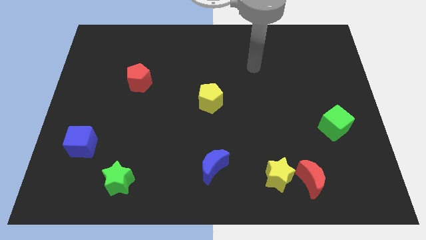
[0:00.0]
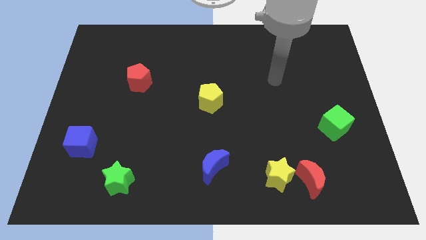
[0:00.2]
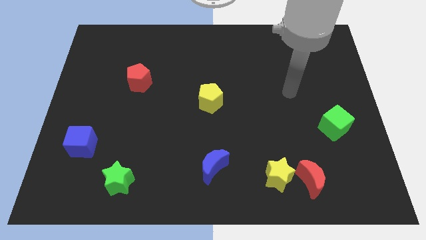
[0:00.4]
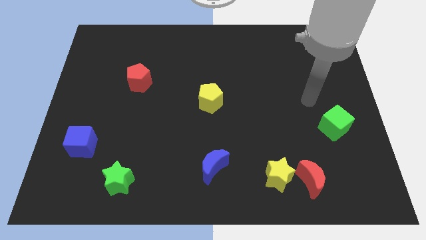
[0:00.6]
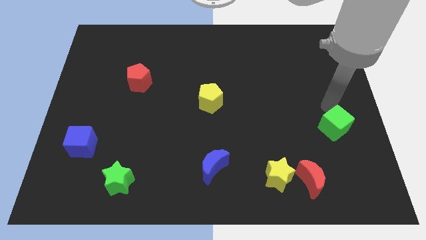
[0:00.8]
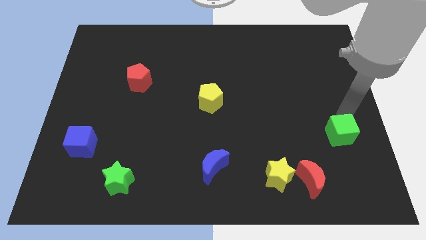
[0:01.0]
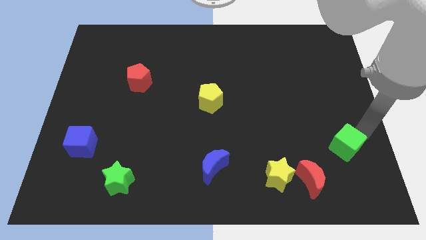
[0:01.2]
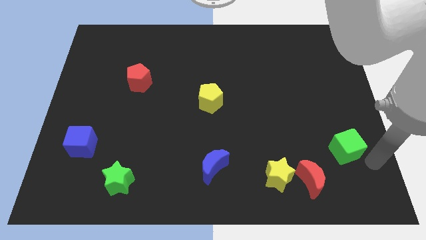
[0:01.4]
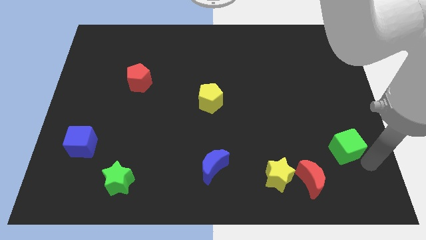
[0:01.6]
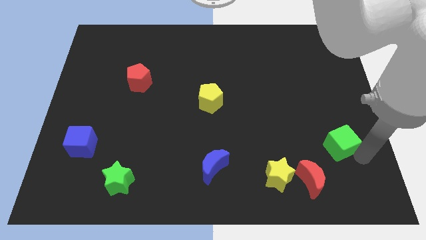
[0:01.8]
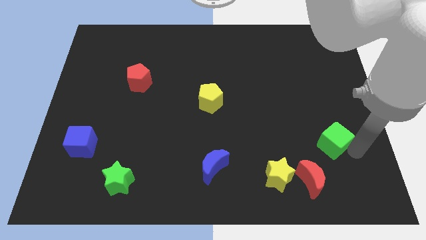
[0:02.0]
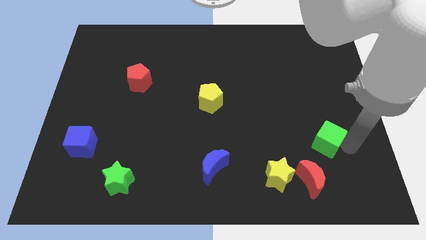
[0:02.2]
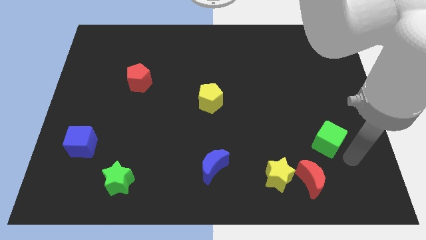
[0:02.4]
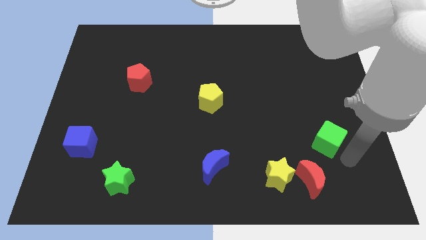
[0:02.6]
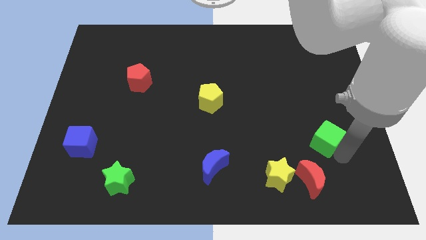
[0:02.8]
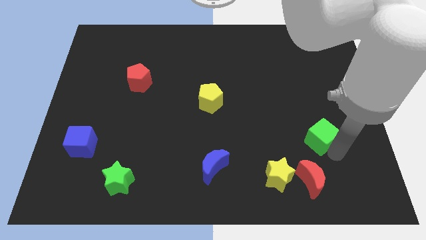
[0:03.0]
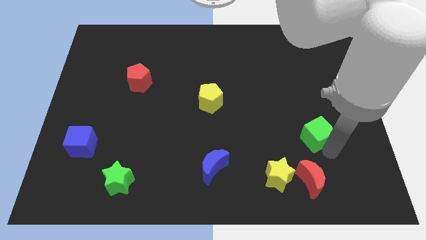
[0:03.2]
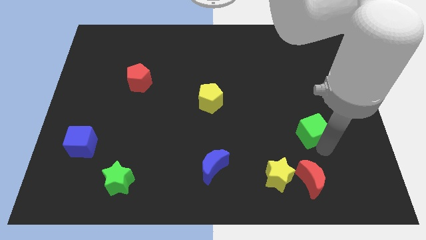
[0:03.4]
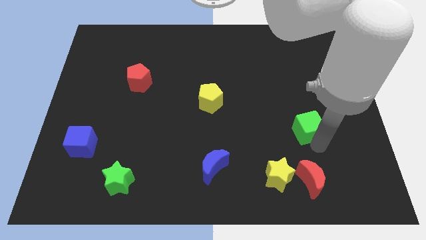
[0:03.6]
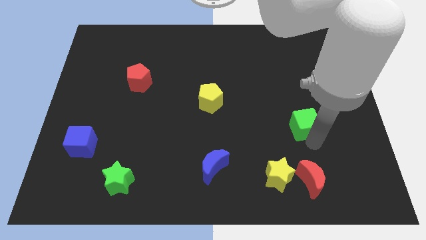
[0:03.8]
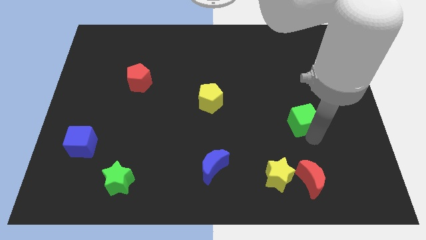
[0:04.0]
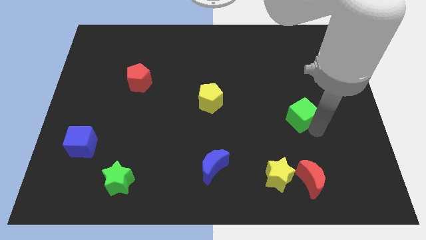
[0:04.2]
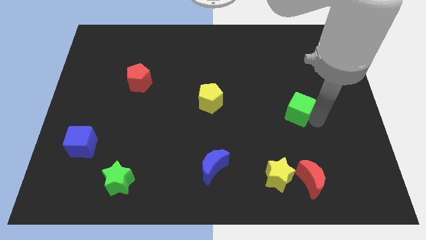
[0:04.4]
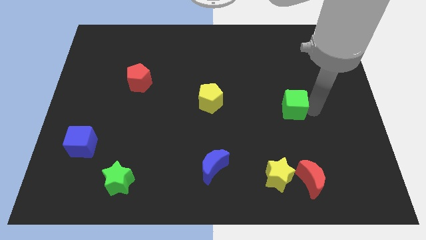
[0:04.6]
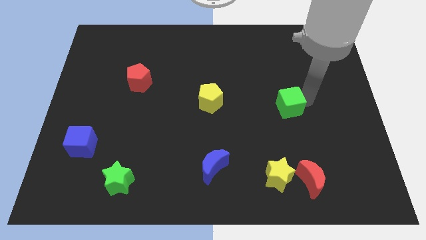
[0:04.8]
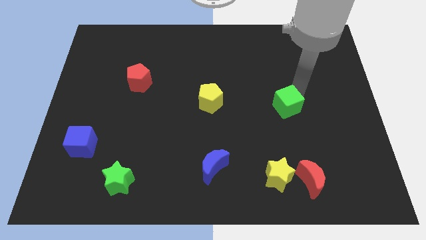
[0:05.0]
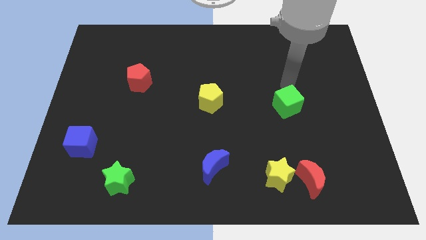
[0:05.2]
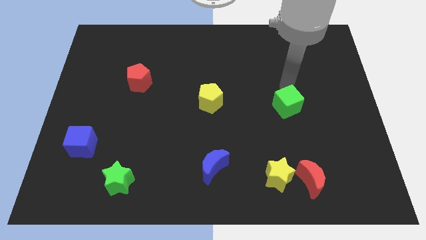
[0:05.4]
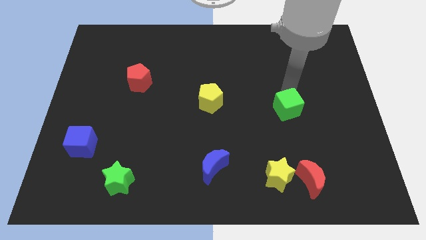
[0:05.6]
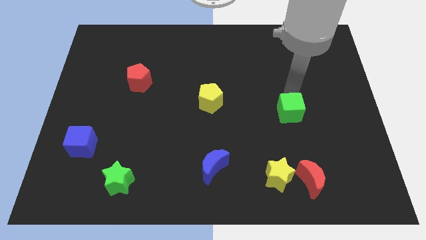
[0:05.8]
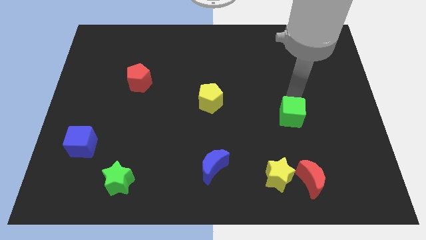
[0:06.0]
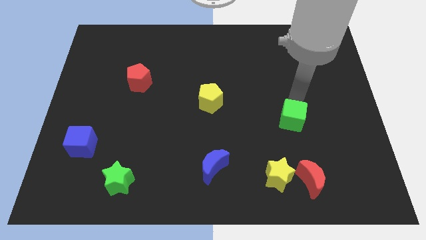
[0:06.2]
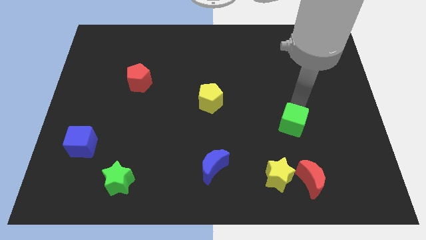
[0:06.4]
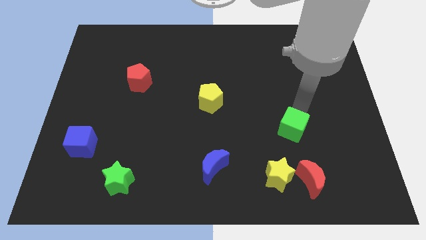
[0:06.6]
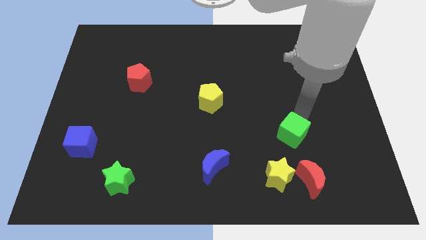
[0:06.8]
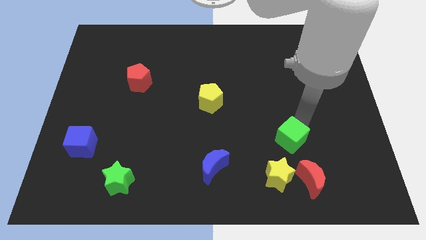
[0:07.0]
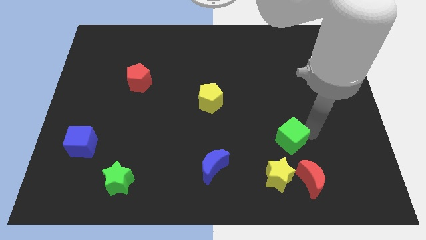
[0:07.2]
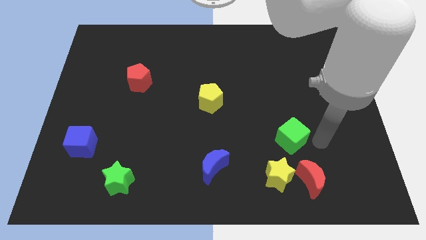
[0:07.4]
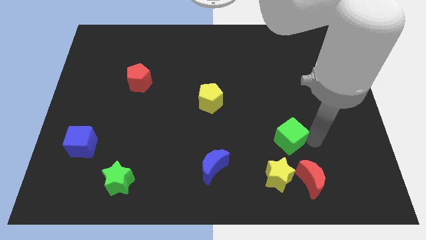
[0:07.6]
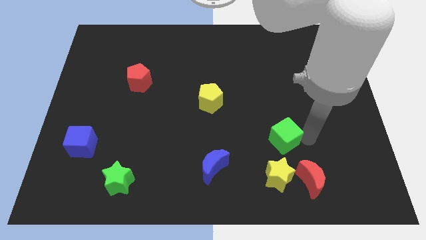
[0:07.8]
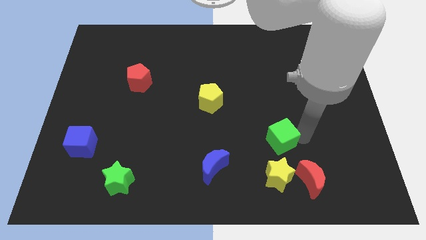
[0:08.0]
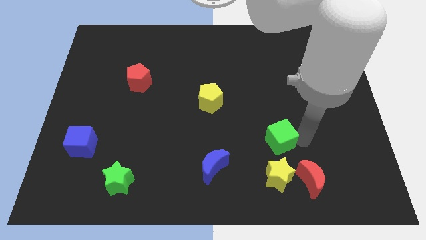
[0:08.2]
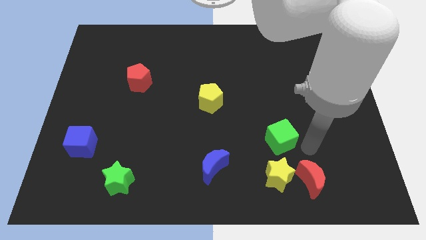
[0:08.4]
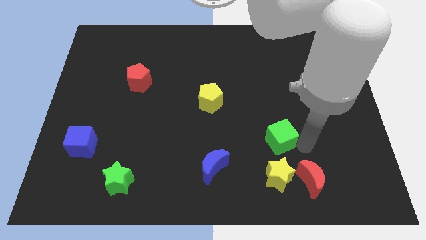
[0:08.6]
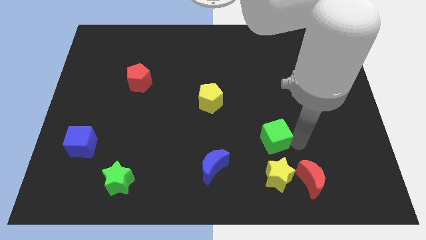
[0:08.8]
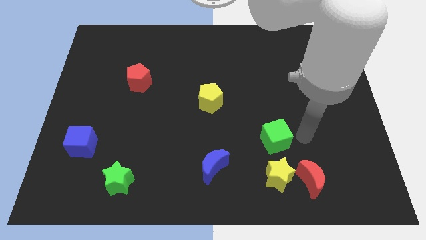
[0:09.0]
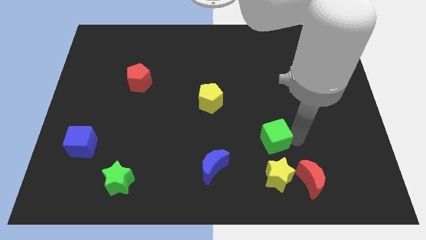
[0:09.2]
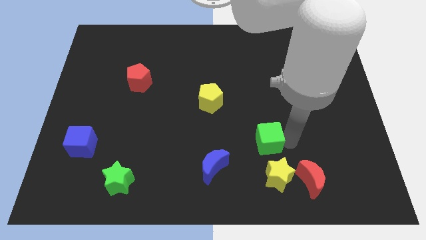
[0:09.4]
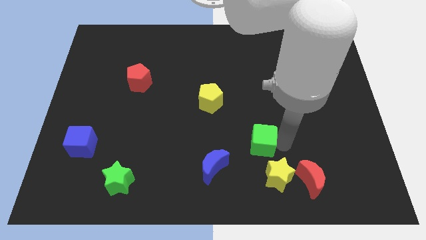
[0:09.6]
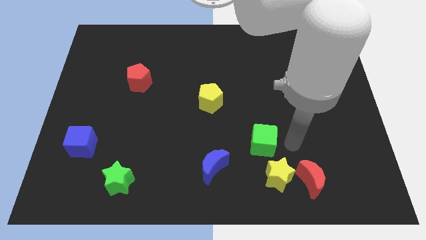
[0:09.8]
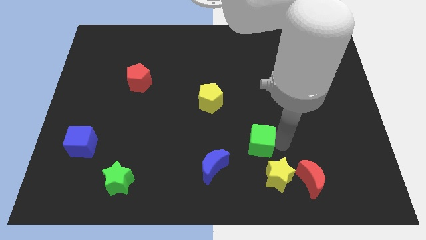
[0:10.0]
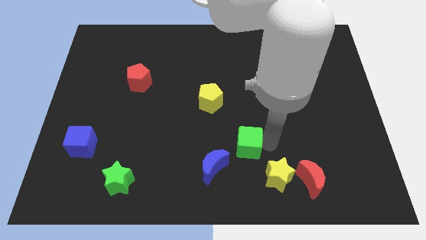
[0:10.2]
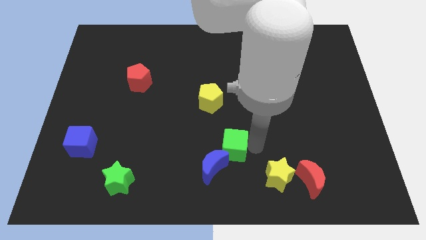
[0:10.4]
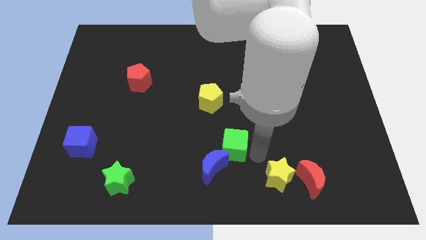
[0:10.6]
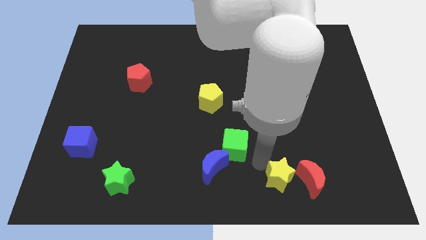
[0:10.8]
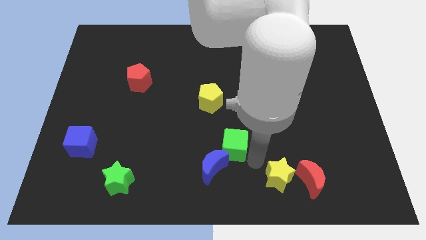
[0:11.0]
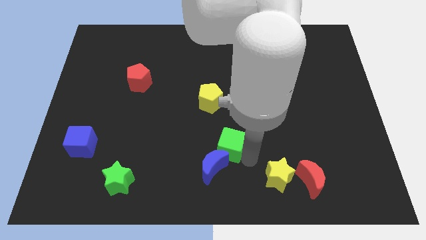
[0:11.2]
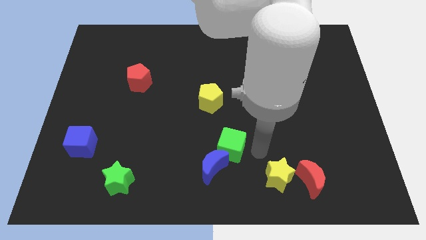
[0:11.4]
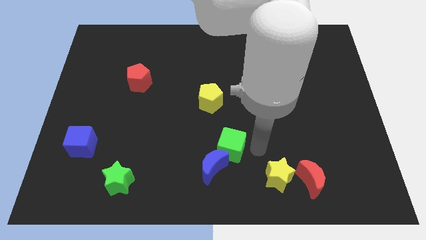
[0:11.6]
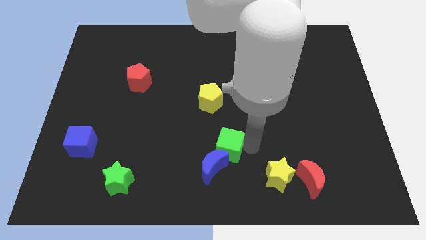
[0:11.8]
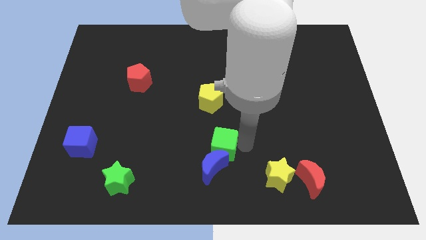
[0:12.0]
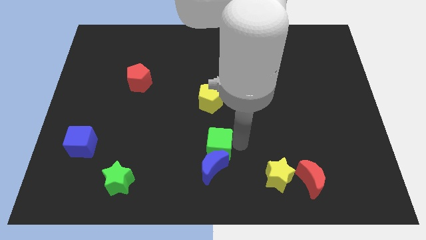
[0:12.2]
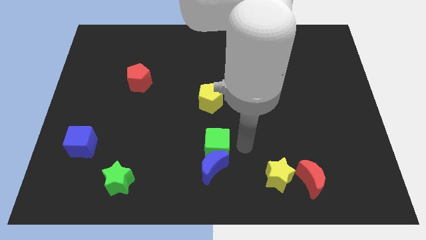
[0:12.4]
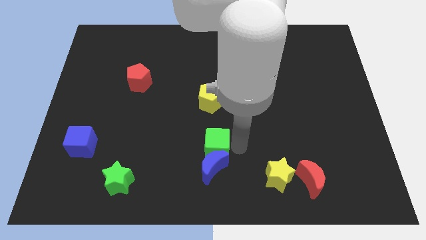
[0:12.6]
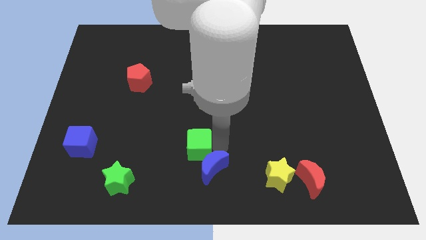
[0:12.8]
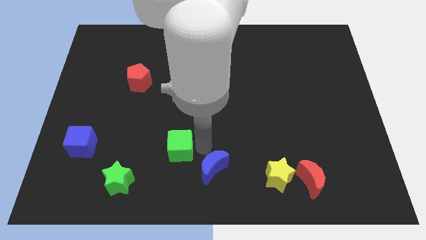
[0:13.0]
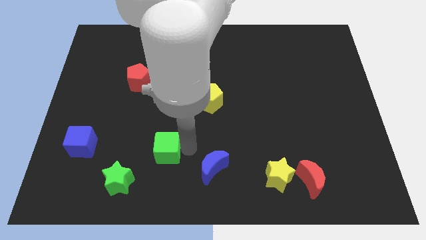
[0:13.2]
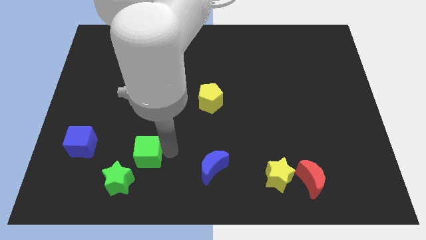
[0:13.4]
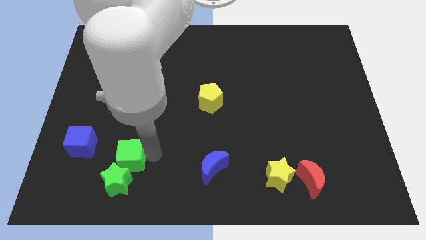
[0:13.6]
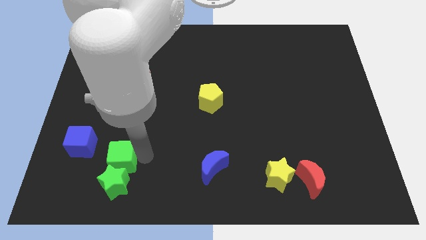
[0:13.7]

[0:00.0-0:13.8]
push the green cube to the top left side of the green star
